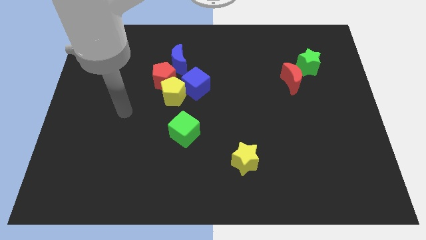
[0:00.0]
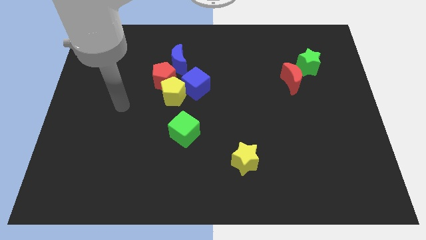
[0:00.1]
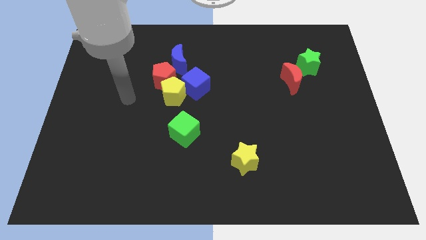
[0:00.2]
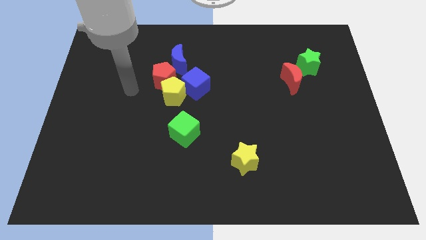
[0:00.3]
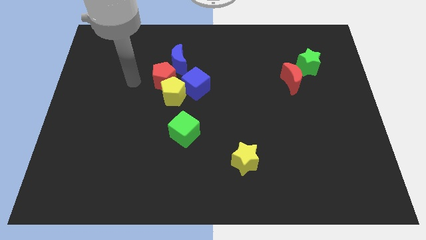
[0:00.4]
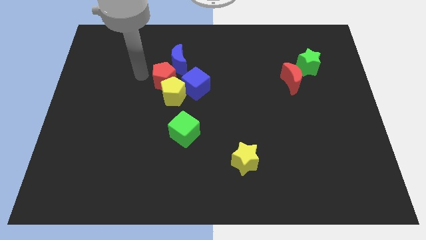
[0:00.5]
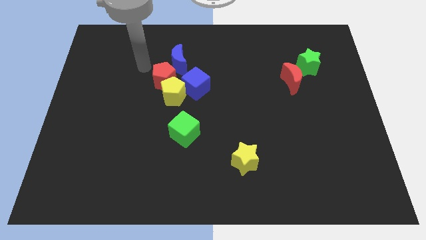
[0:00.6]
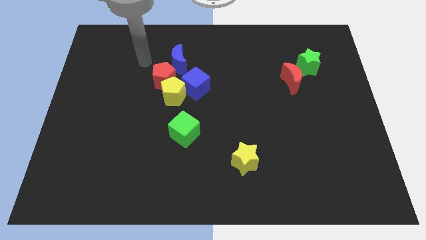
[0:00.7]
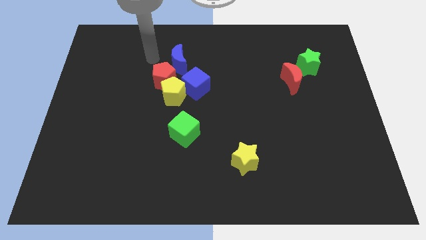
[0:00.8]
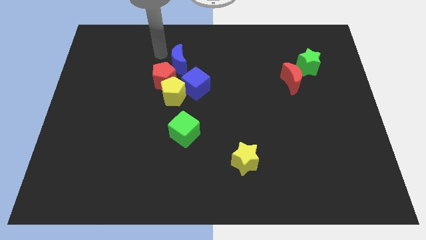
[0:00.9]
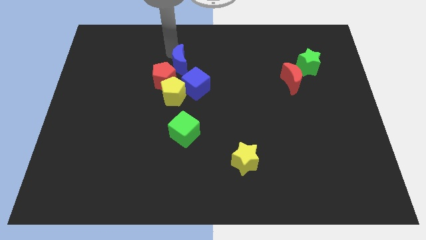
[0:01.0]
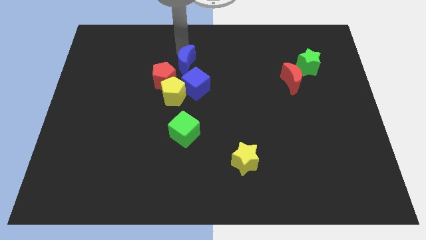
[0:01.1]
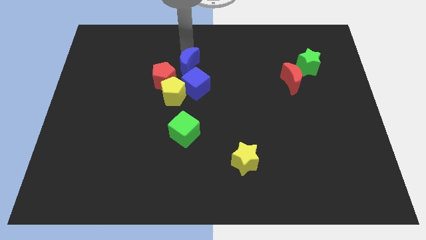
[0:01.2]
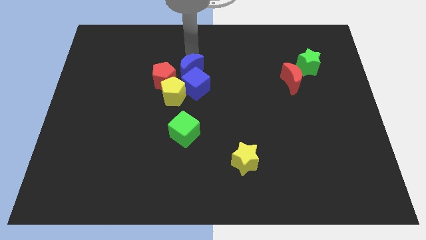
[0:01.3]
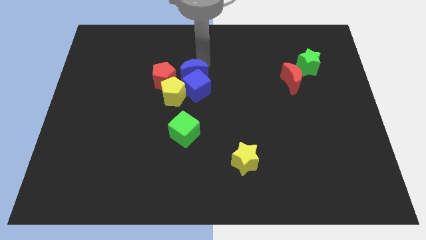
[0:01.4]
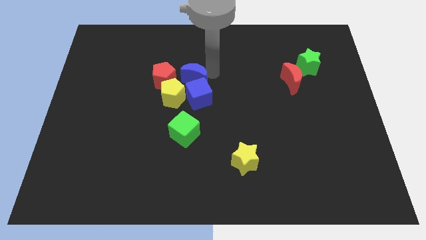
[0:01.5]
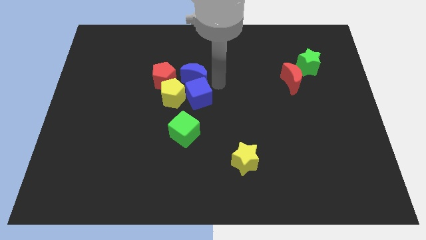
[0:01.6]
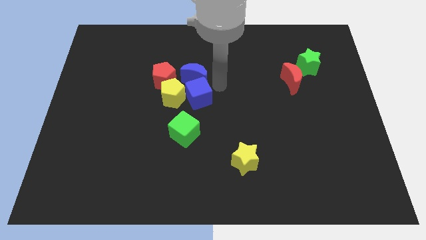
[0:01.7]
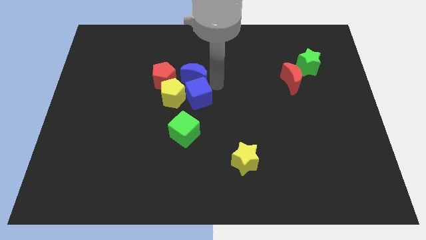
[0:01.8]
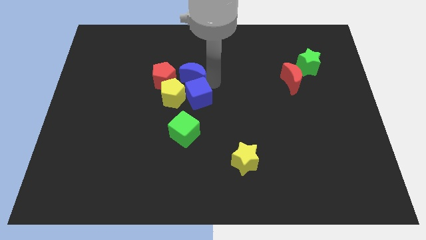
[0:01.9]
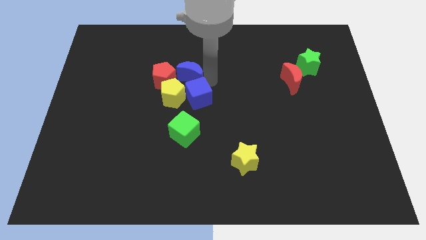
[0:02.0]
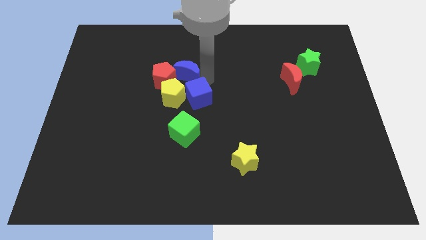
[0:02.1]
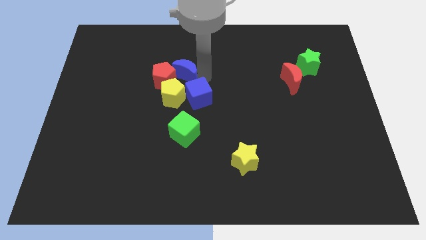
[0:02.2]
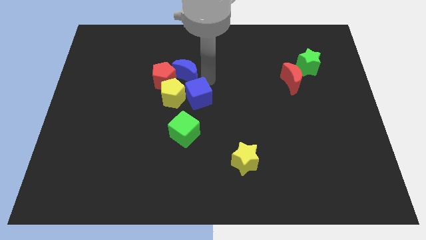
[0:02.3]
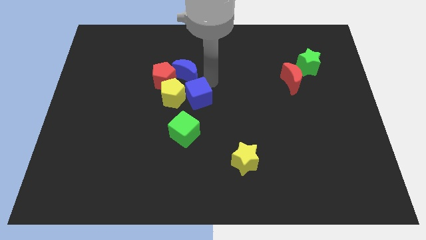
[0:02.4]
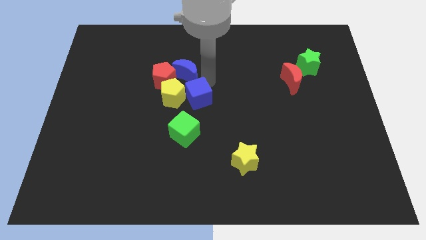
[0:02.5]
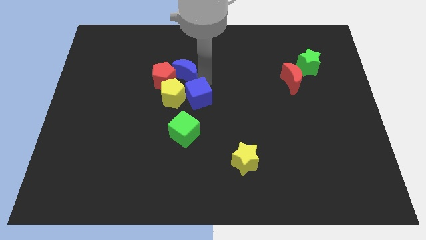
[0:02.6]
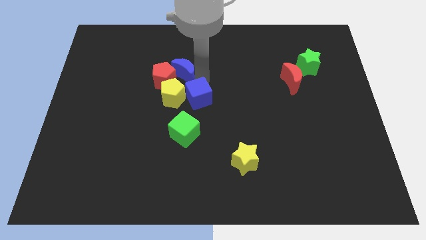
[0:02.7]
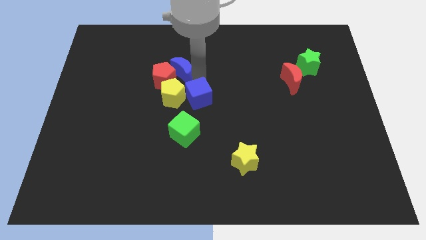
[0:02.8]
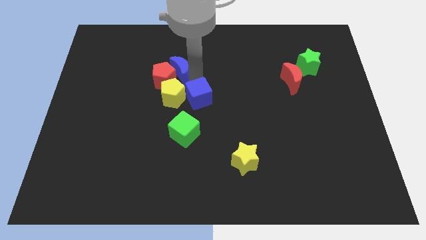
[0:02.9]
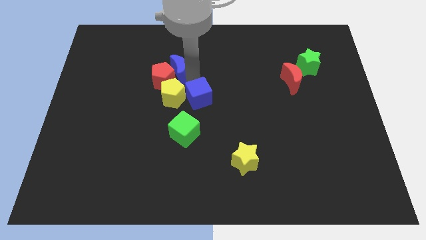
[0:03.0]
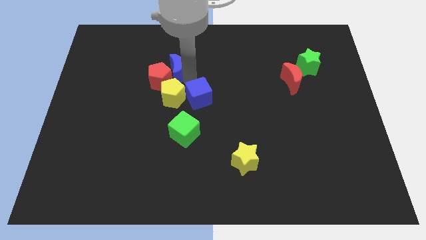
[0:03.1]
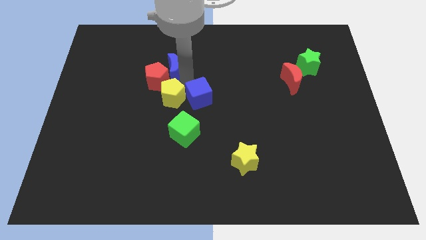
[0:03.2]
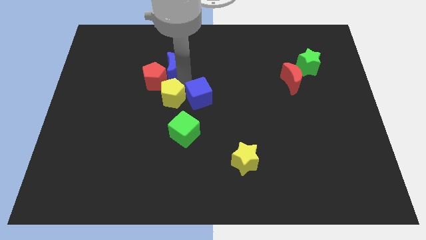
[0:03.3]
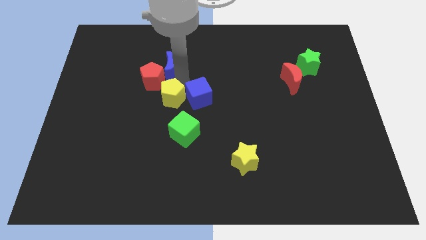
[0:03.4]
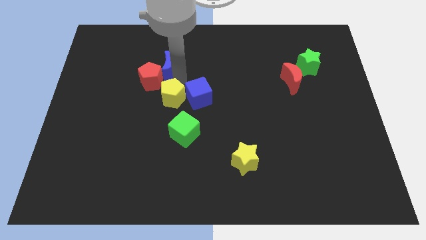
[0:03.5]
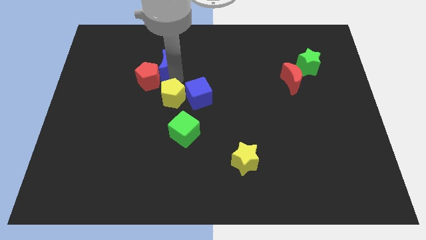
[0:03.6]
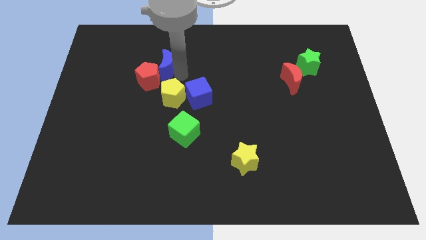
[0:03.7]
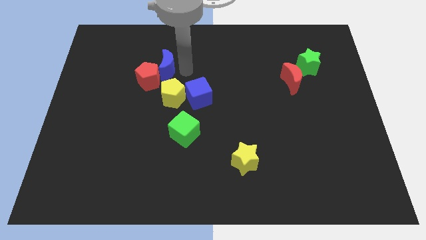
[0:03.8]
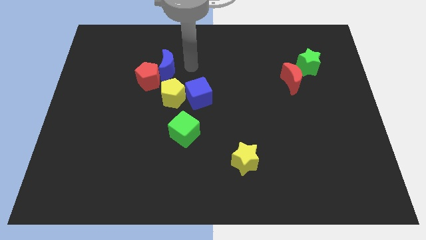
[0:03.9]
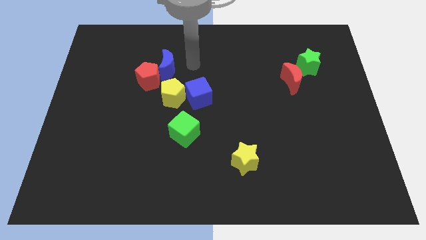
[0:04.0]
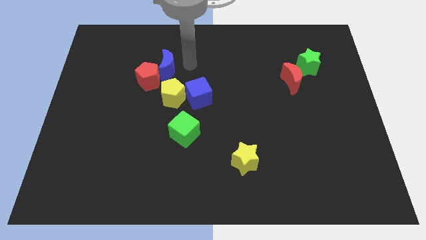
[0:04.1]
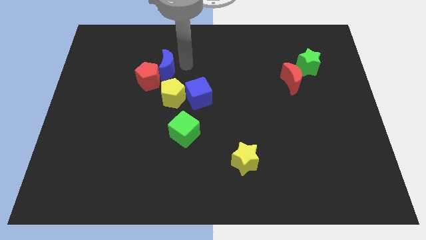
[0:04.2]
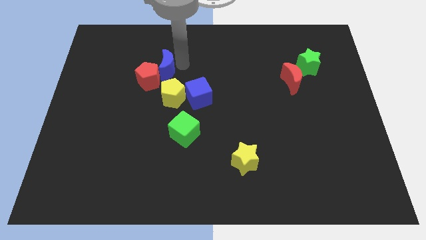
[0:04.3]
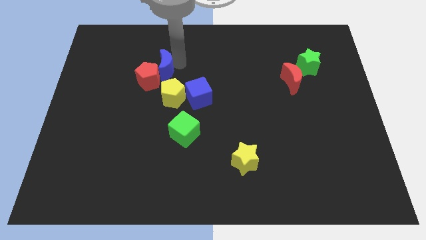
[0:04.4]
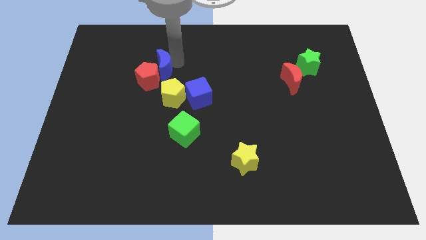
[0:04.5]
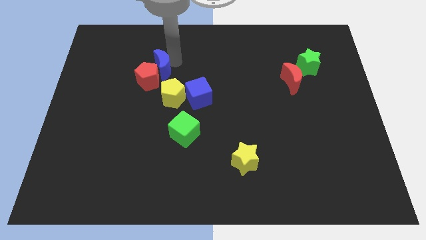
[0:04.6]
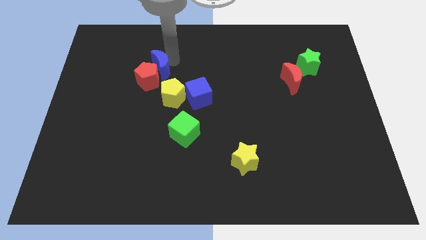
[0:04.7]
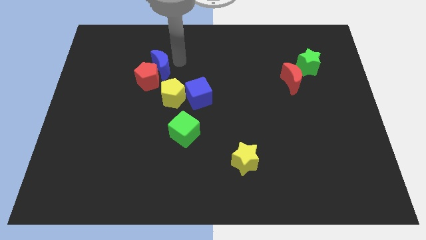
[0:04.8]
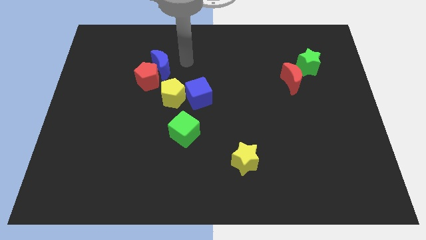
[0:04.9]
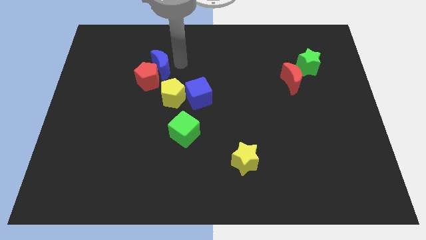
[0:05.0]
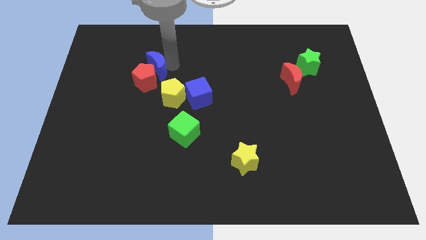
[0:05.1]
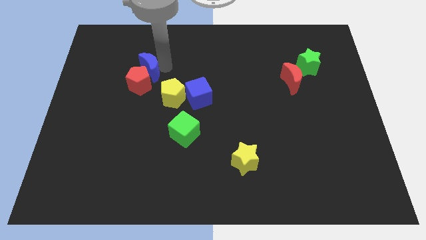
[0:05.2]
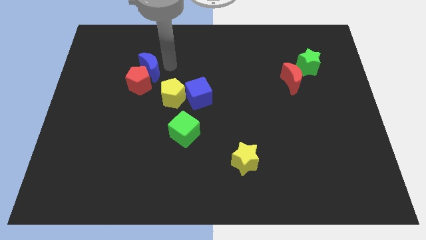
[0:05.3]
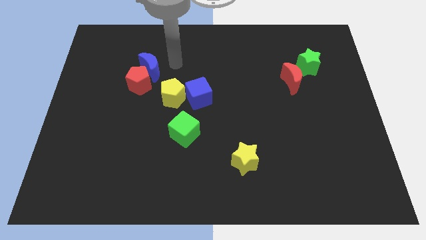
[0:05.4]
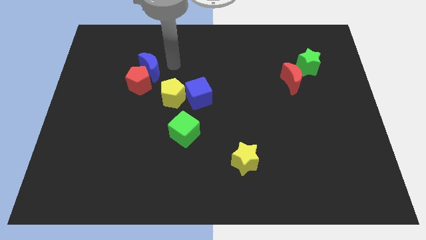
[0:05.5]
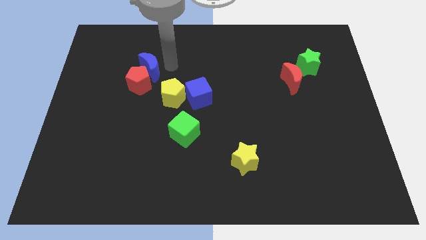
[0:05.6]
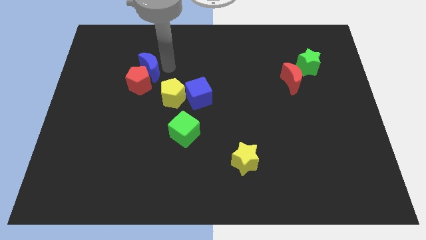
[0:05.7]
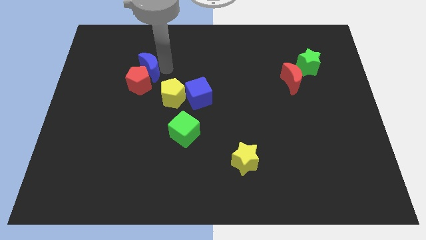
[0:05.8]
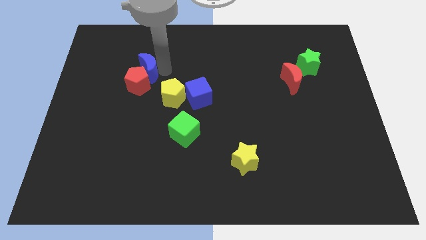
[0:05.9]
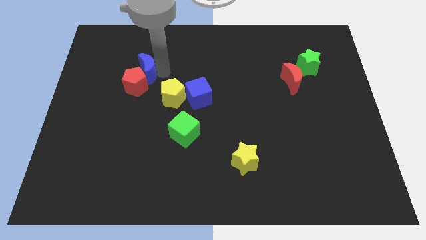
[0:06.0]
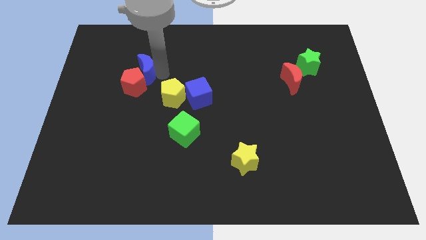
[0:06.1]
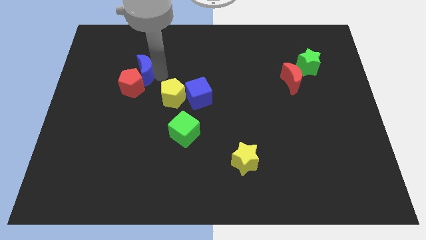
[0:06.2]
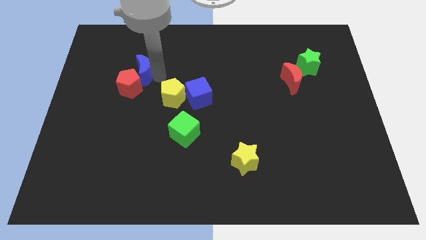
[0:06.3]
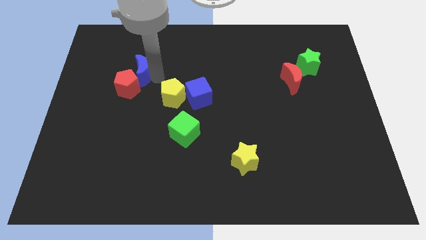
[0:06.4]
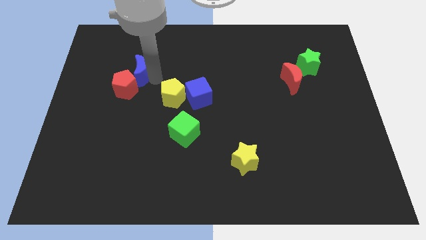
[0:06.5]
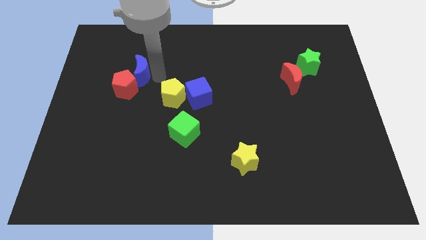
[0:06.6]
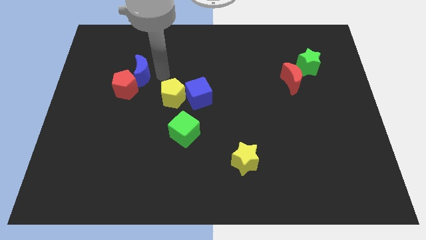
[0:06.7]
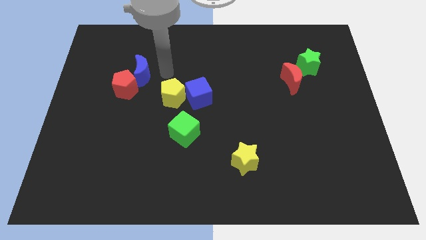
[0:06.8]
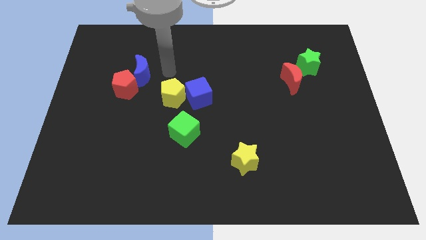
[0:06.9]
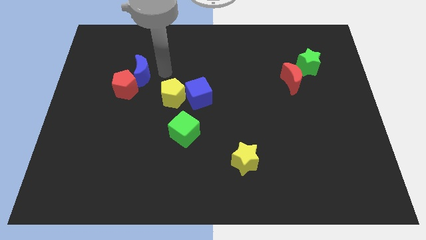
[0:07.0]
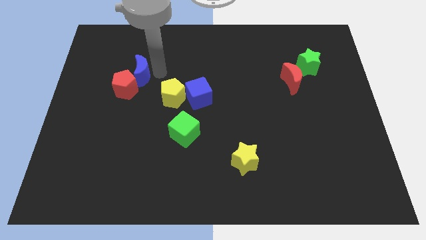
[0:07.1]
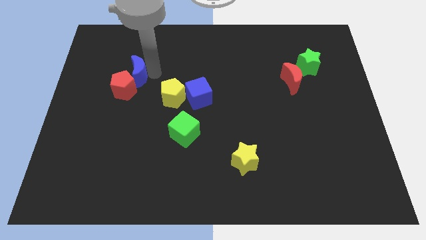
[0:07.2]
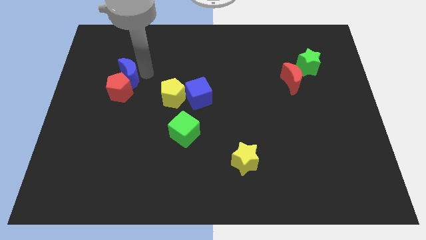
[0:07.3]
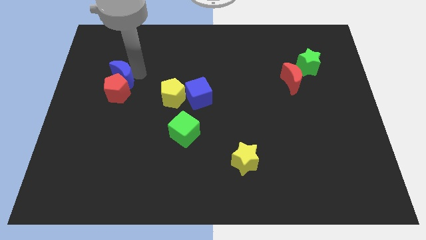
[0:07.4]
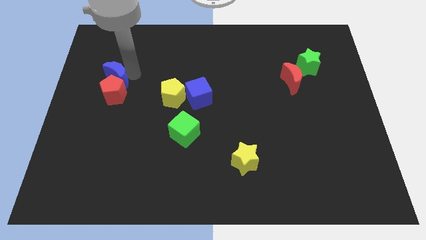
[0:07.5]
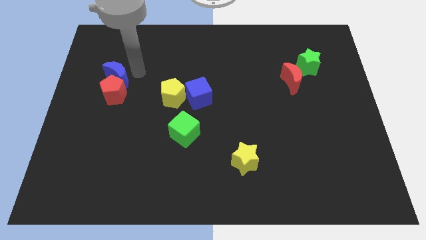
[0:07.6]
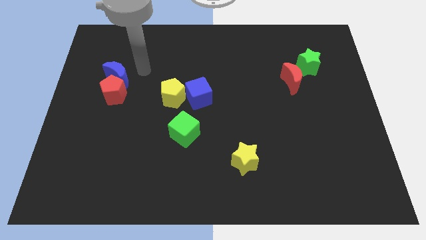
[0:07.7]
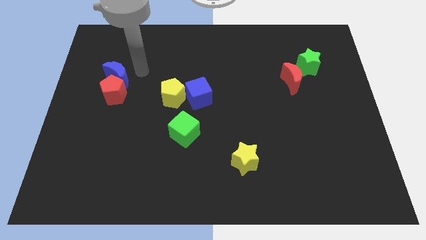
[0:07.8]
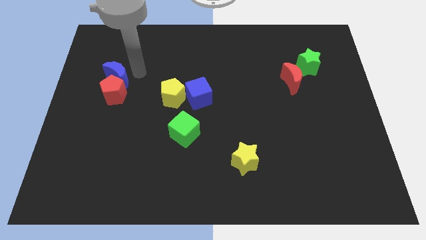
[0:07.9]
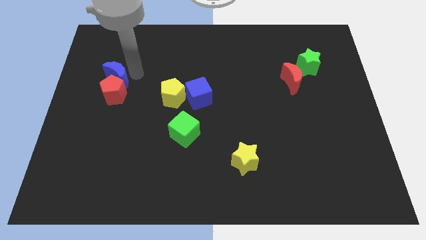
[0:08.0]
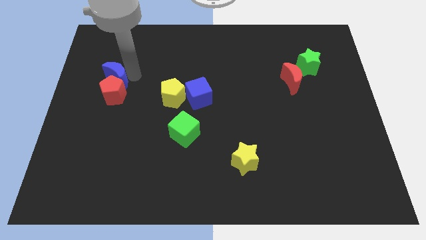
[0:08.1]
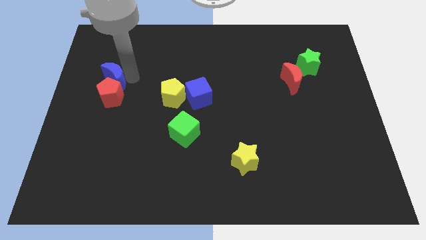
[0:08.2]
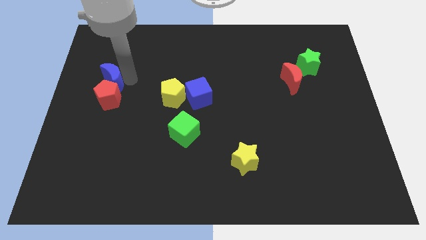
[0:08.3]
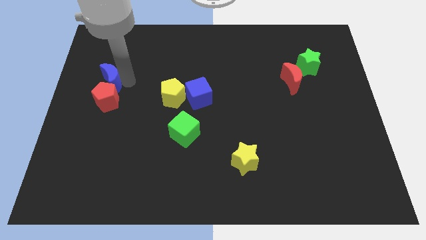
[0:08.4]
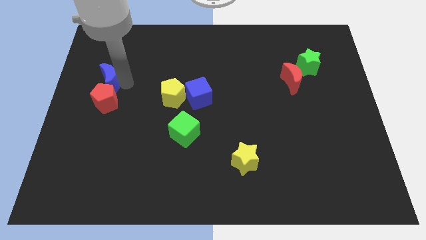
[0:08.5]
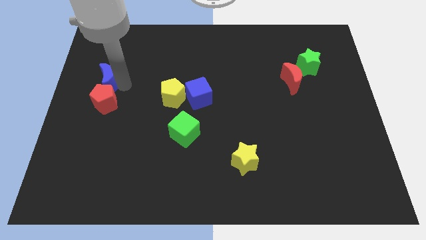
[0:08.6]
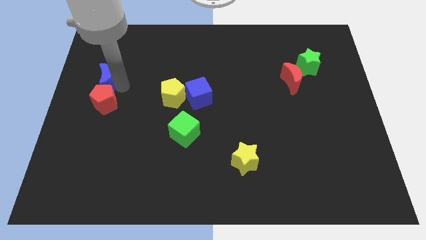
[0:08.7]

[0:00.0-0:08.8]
push the blue moon to the center left
